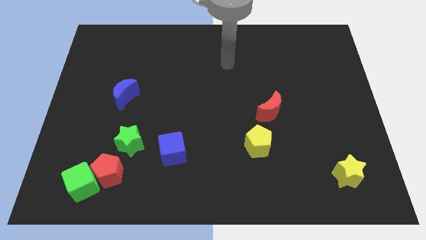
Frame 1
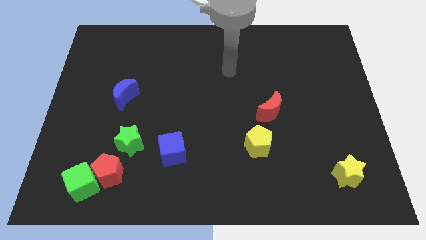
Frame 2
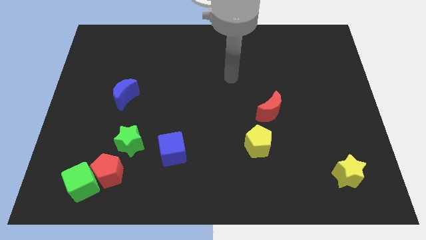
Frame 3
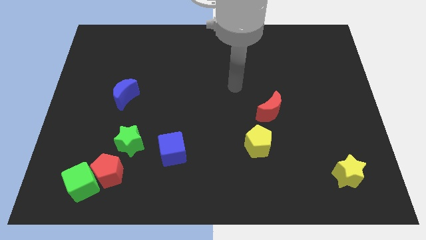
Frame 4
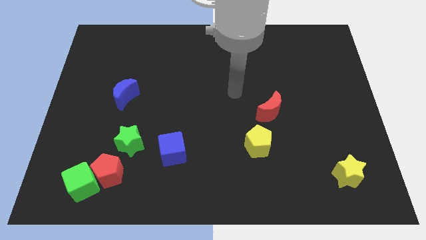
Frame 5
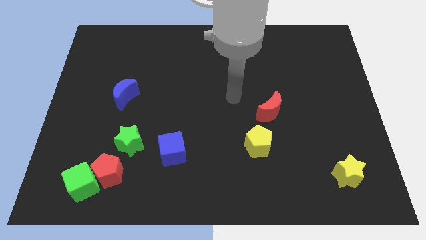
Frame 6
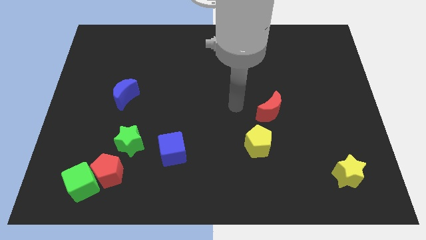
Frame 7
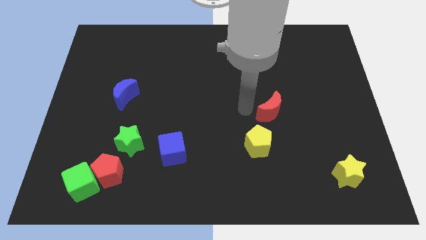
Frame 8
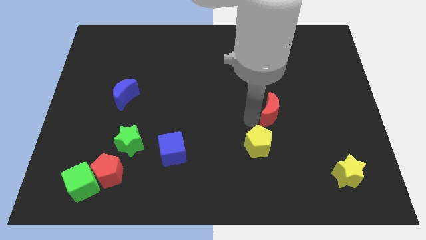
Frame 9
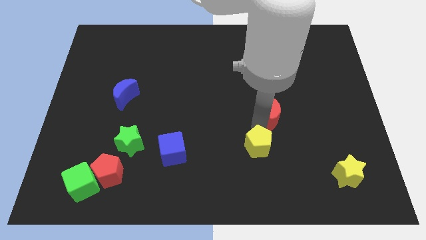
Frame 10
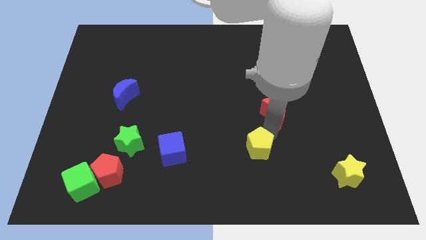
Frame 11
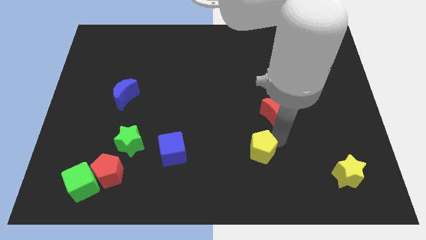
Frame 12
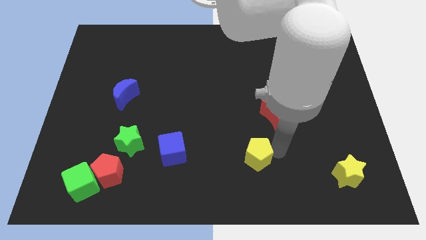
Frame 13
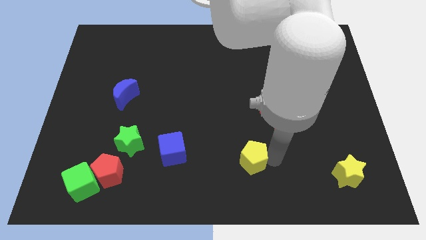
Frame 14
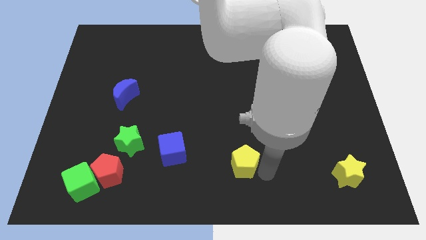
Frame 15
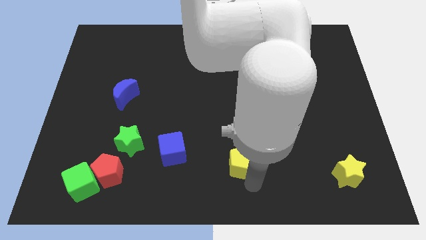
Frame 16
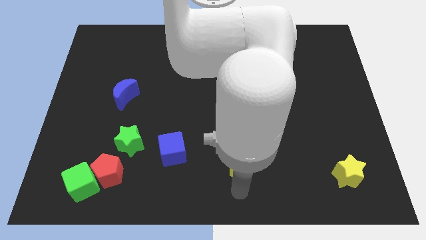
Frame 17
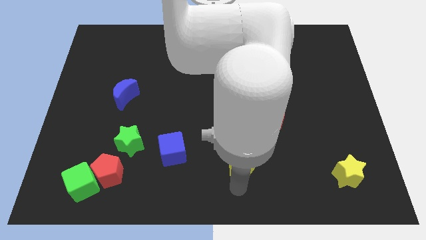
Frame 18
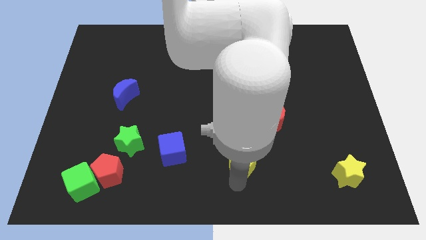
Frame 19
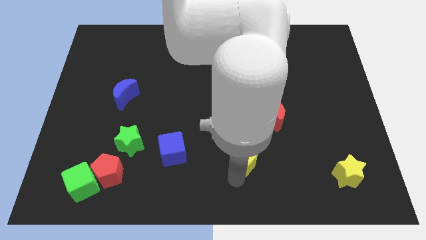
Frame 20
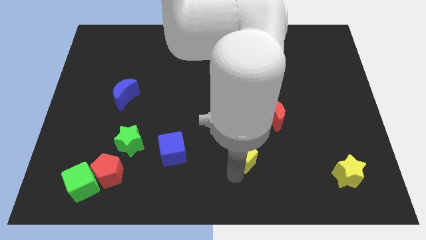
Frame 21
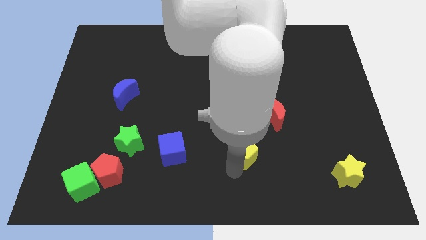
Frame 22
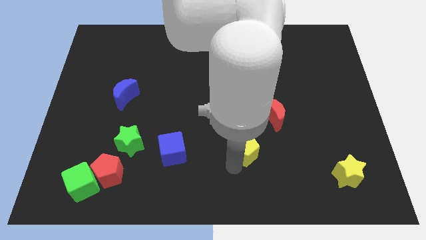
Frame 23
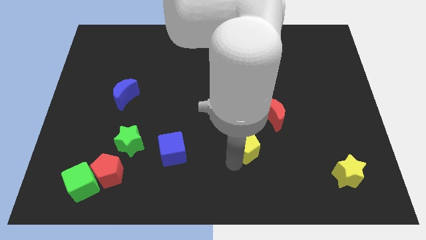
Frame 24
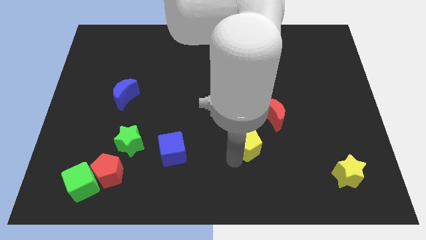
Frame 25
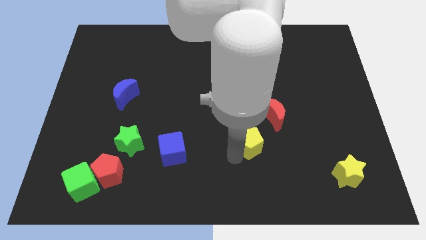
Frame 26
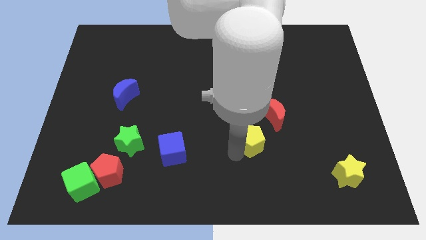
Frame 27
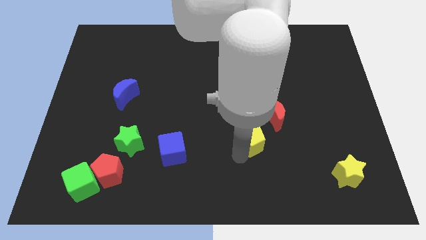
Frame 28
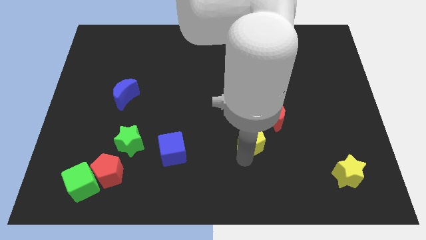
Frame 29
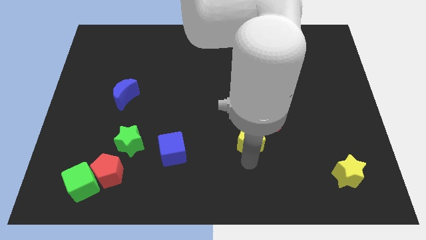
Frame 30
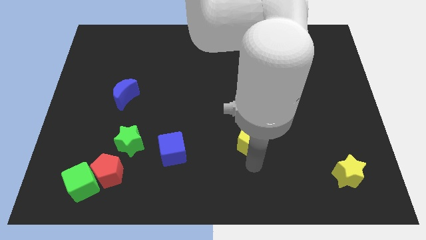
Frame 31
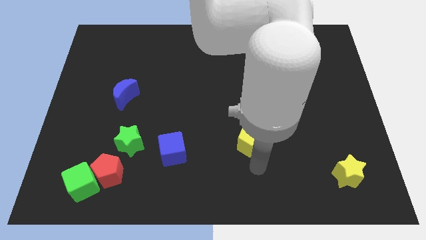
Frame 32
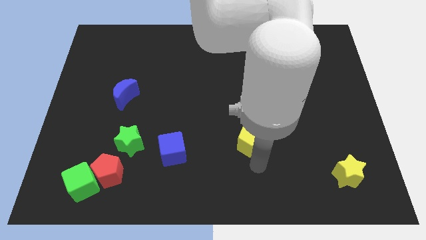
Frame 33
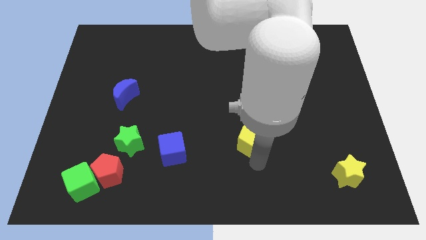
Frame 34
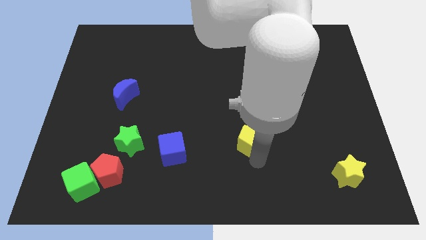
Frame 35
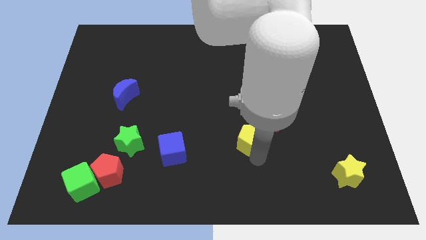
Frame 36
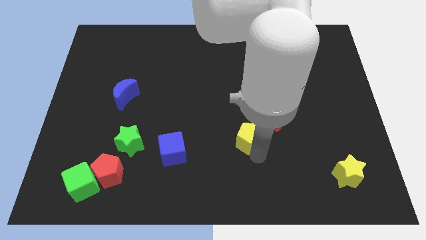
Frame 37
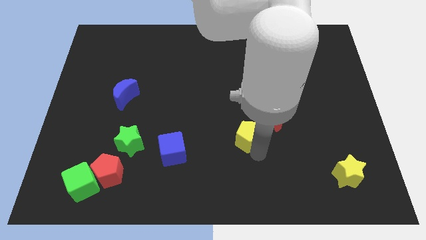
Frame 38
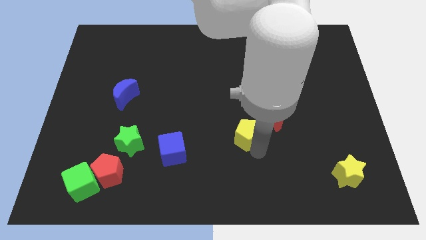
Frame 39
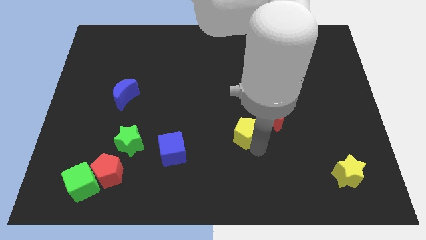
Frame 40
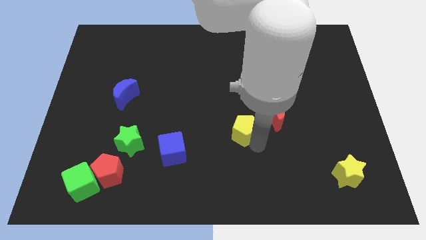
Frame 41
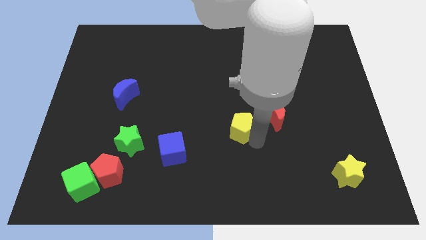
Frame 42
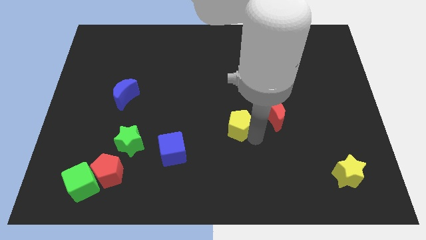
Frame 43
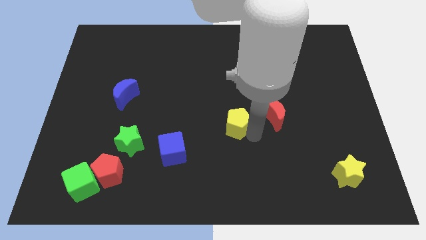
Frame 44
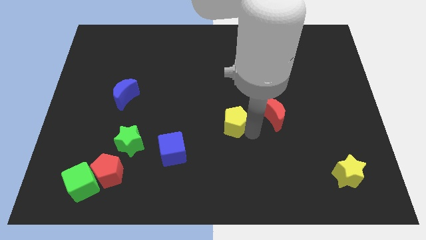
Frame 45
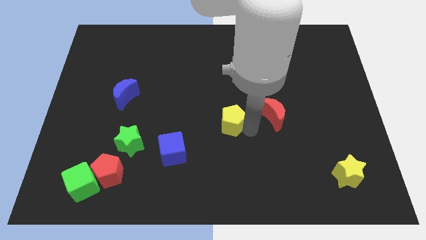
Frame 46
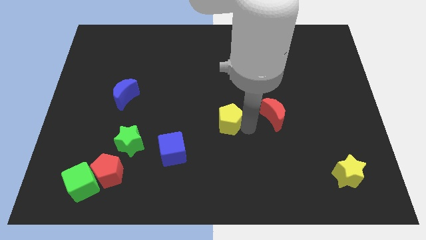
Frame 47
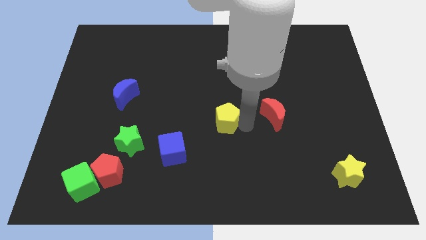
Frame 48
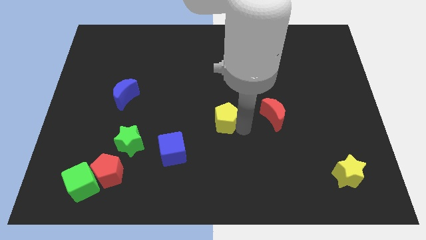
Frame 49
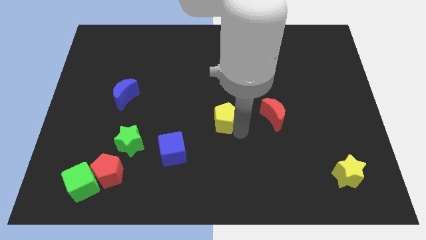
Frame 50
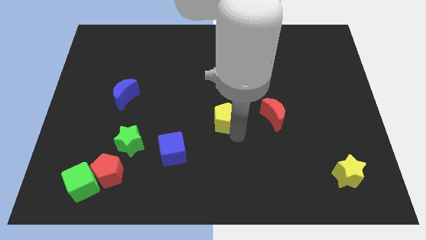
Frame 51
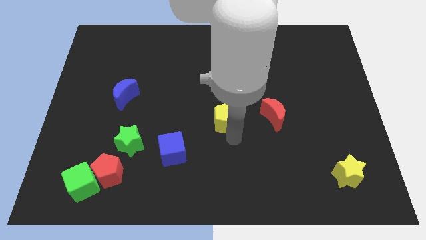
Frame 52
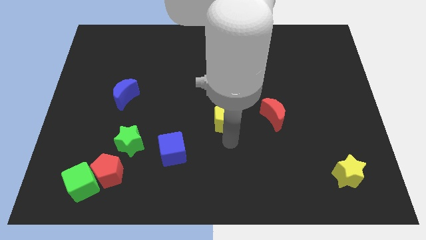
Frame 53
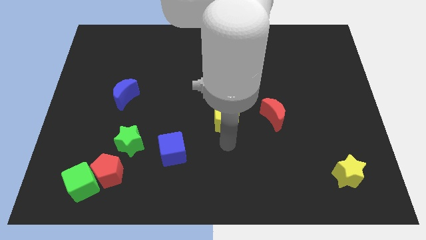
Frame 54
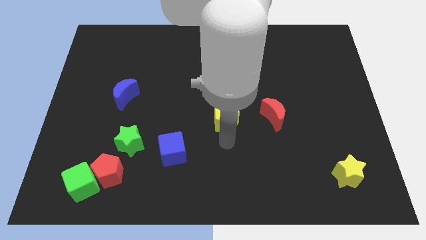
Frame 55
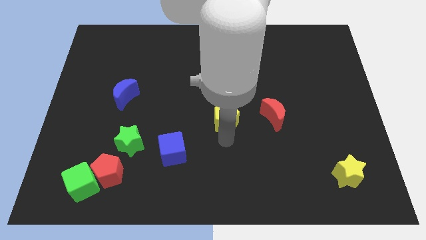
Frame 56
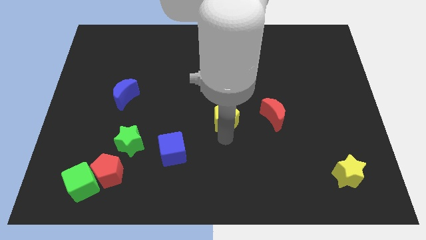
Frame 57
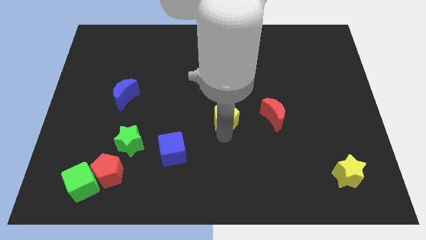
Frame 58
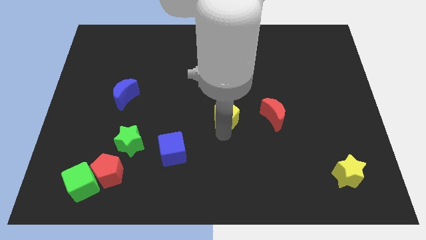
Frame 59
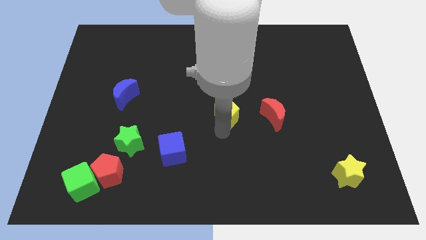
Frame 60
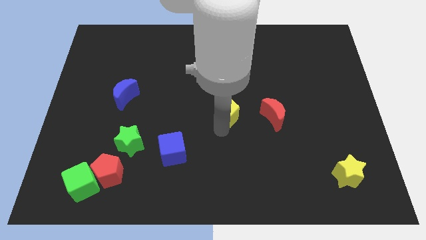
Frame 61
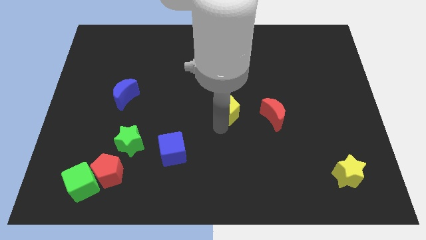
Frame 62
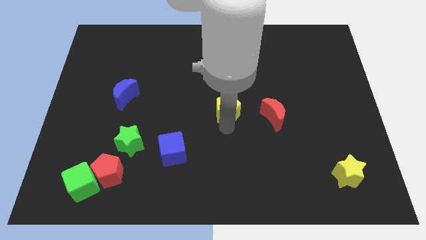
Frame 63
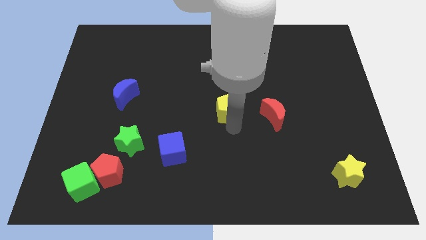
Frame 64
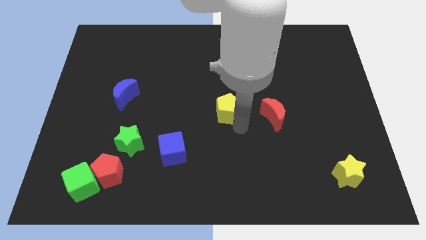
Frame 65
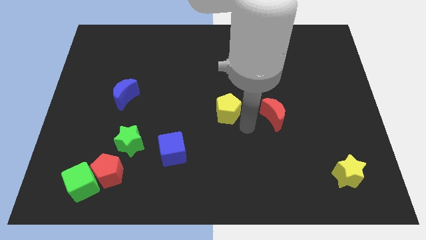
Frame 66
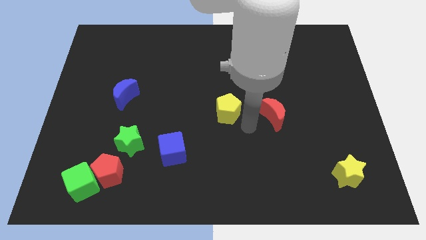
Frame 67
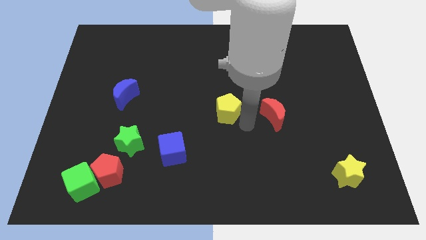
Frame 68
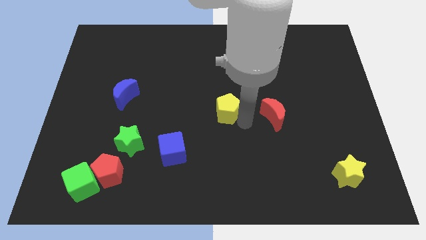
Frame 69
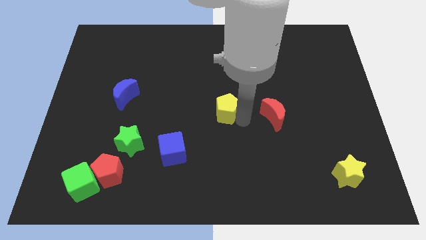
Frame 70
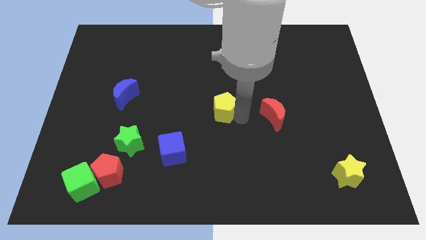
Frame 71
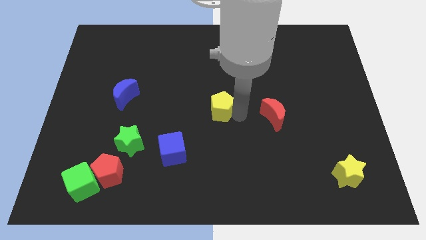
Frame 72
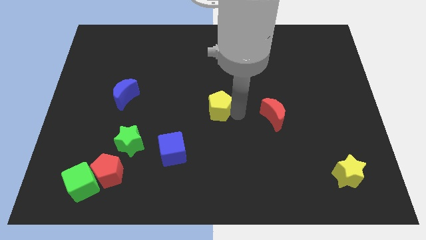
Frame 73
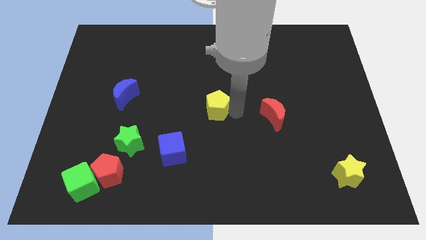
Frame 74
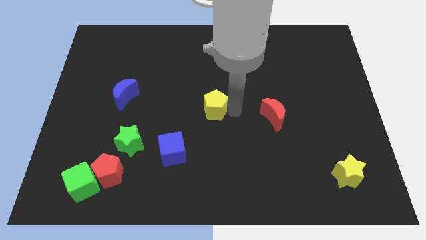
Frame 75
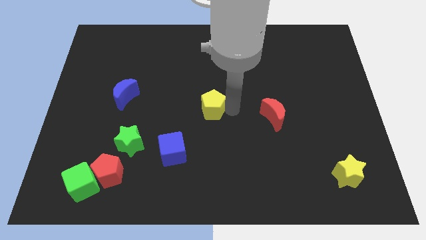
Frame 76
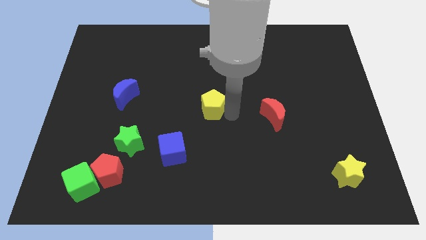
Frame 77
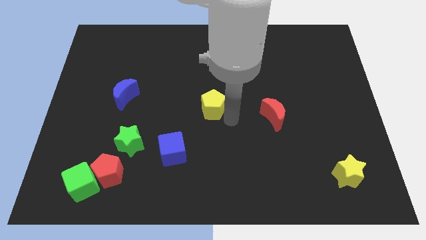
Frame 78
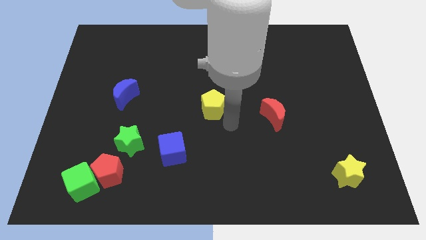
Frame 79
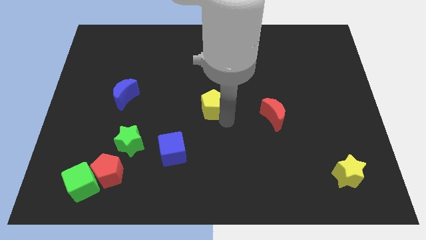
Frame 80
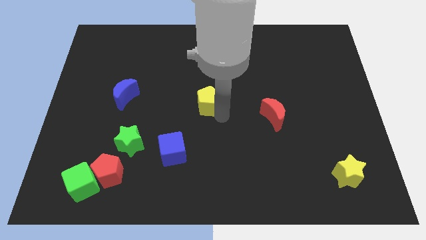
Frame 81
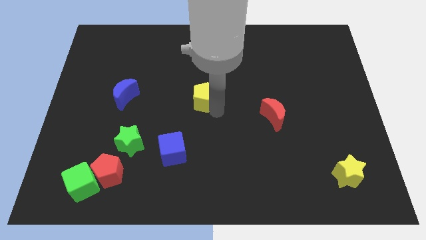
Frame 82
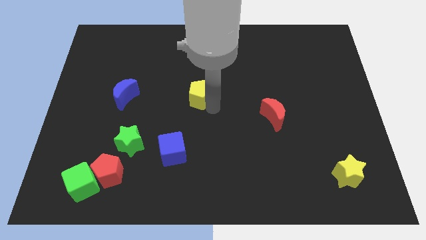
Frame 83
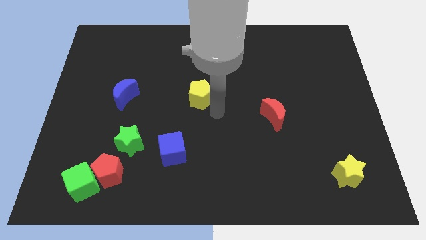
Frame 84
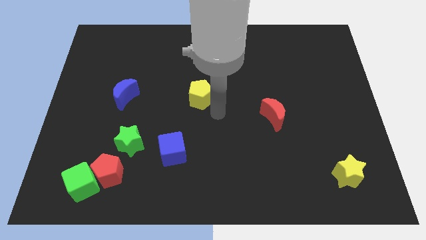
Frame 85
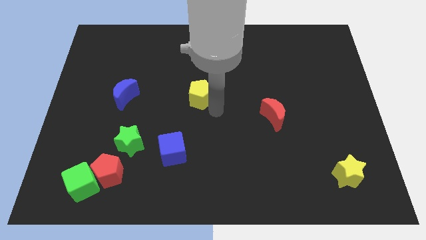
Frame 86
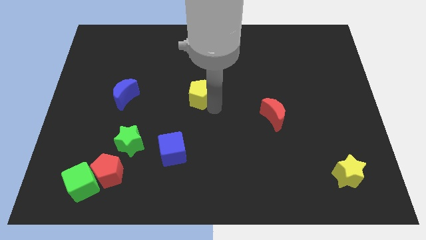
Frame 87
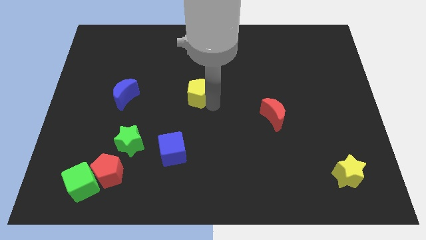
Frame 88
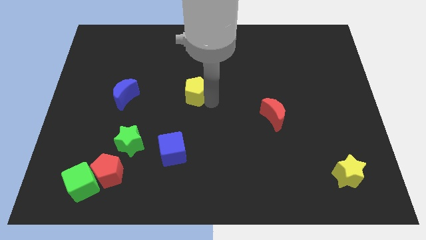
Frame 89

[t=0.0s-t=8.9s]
move the yellow pentagon up and to the left
